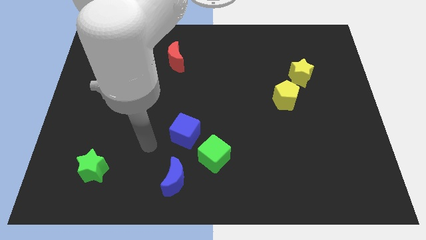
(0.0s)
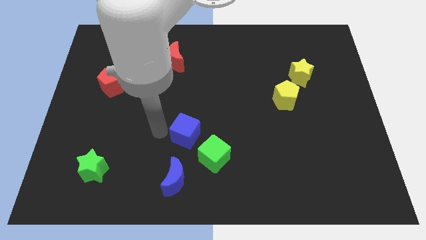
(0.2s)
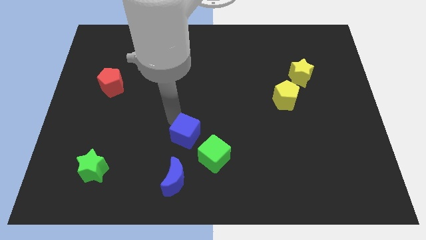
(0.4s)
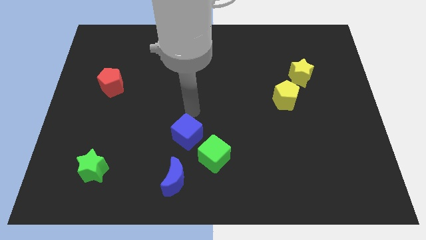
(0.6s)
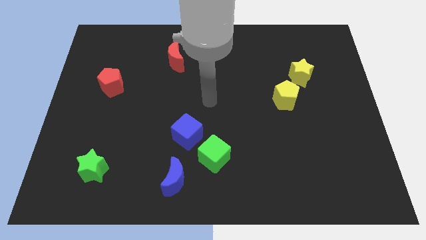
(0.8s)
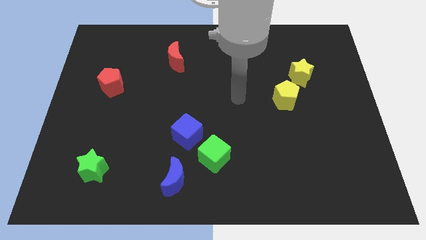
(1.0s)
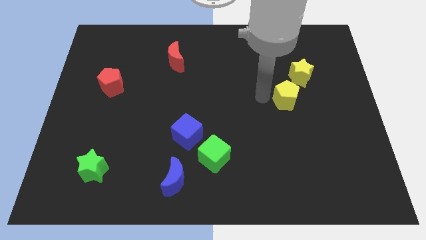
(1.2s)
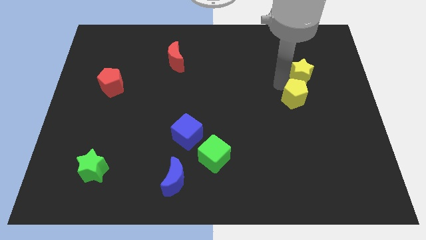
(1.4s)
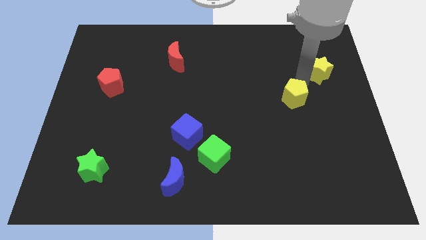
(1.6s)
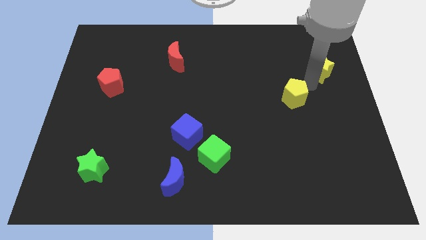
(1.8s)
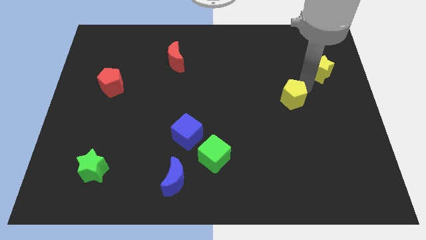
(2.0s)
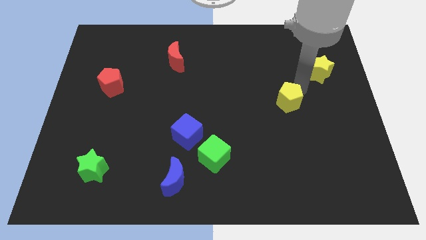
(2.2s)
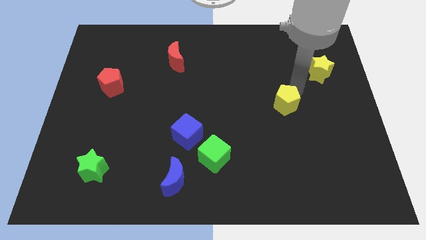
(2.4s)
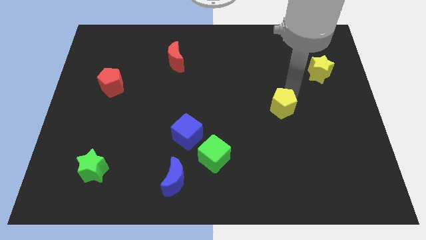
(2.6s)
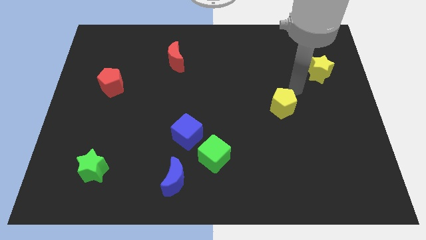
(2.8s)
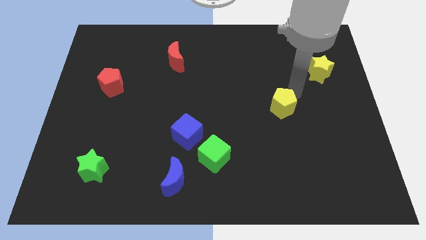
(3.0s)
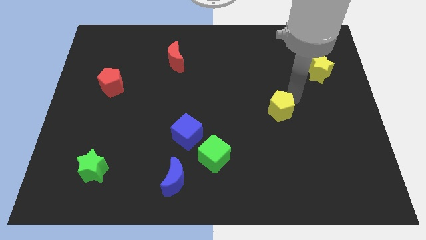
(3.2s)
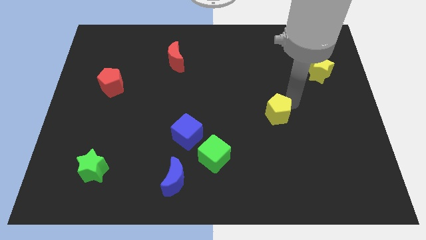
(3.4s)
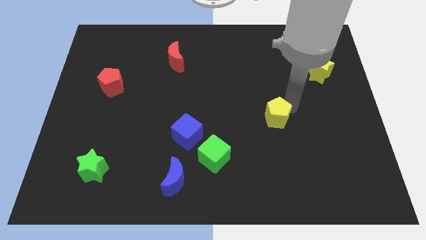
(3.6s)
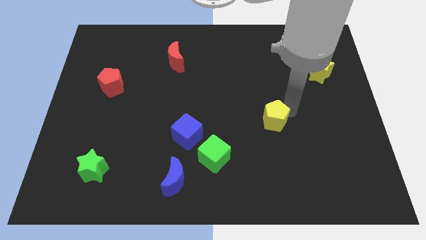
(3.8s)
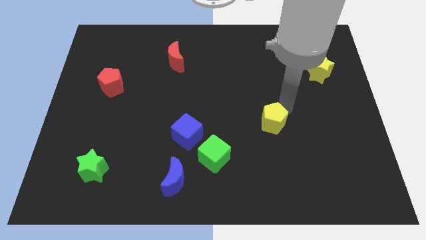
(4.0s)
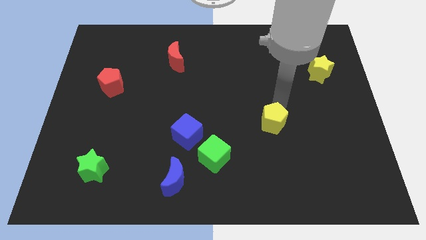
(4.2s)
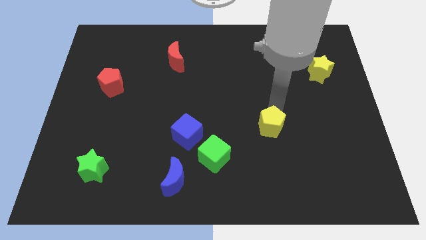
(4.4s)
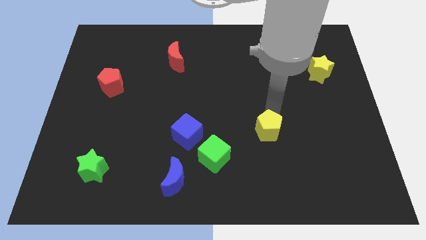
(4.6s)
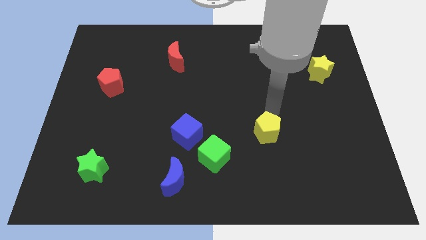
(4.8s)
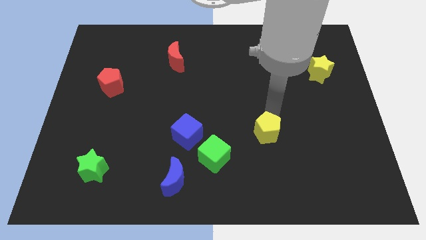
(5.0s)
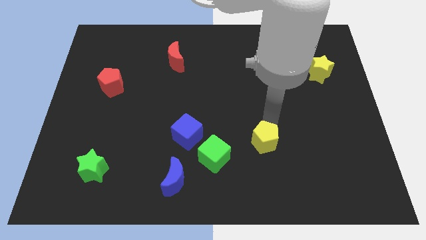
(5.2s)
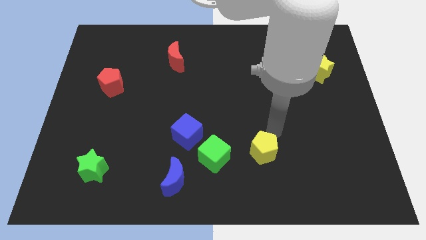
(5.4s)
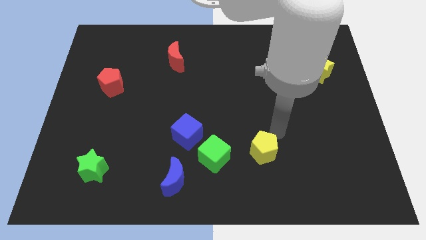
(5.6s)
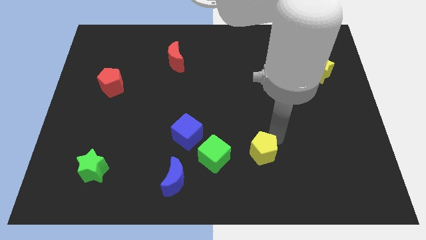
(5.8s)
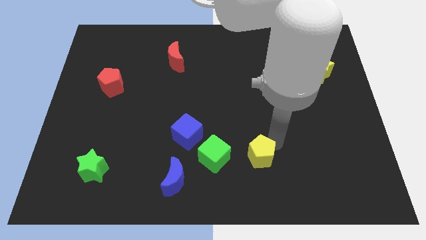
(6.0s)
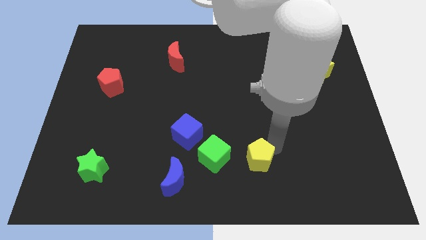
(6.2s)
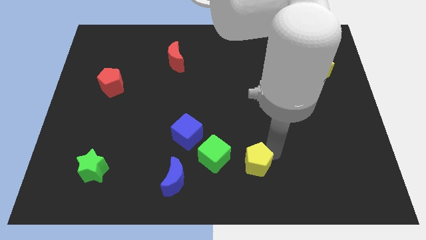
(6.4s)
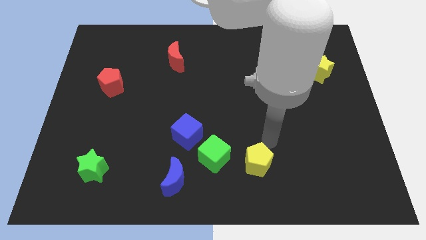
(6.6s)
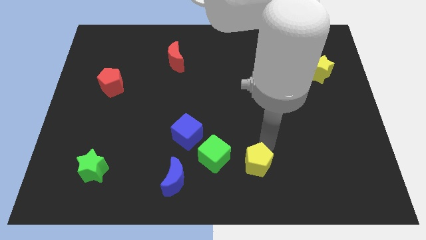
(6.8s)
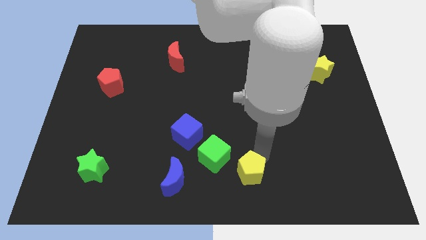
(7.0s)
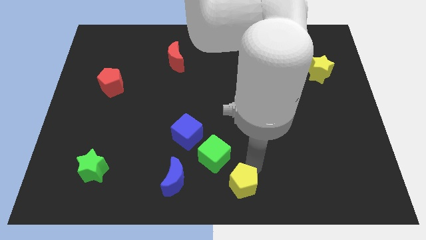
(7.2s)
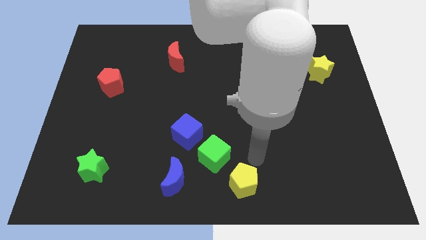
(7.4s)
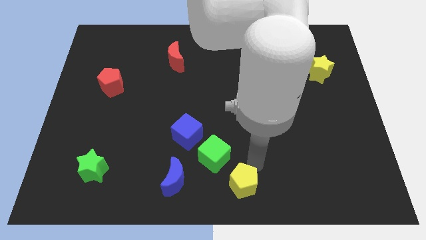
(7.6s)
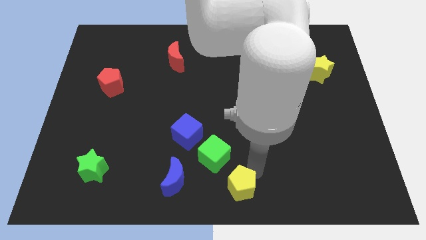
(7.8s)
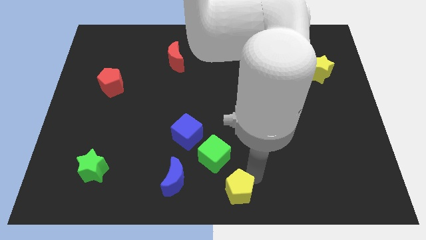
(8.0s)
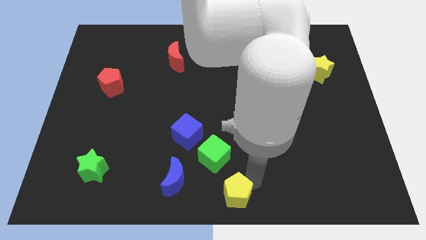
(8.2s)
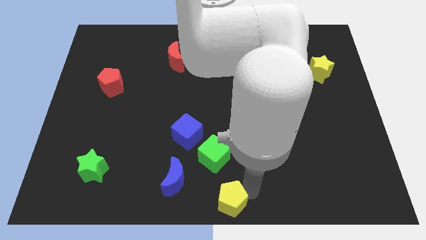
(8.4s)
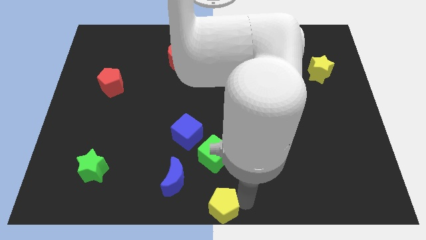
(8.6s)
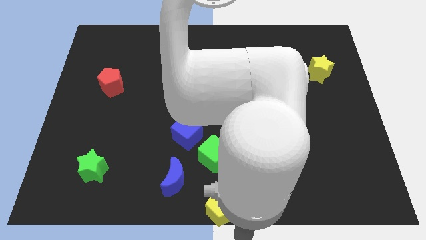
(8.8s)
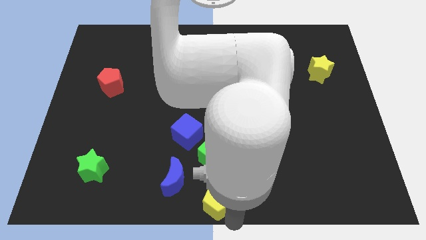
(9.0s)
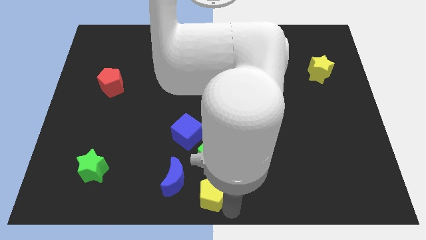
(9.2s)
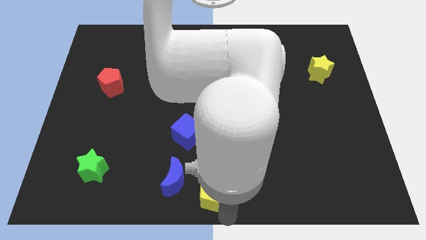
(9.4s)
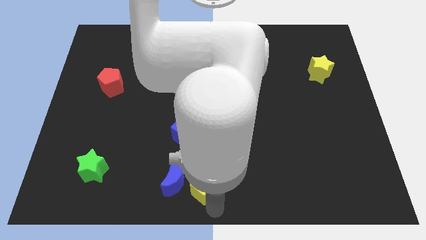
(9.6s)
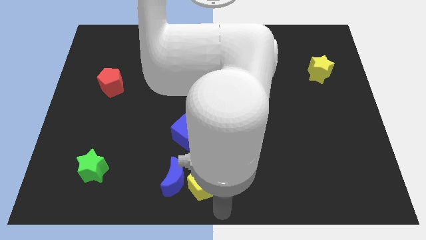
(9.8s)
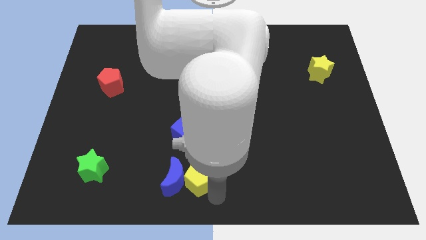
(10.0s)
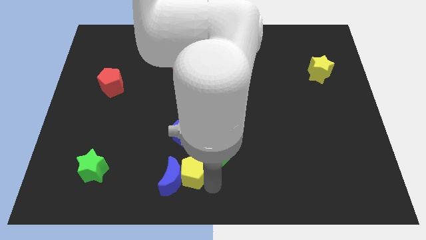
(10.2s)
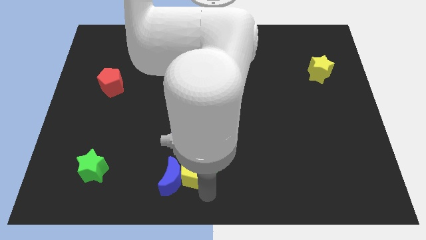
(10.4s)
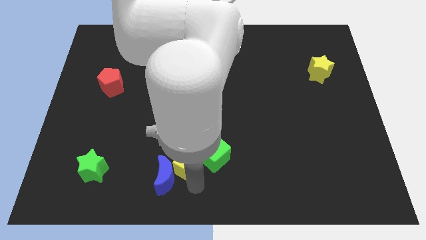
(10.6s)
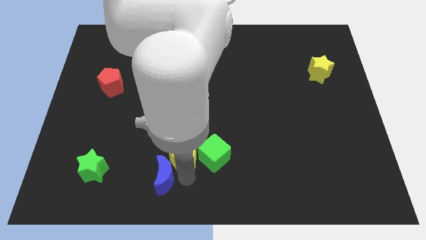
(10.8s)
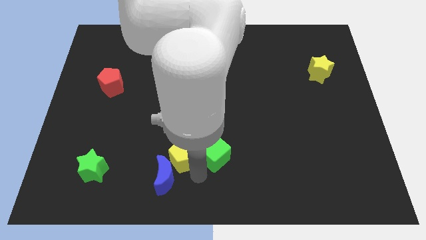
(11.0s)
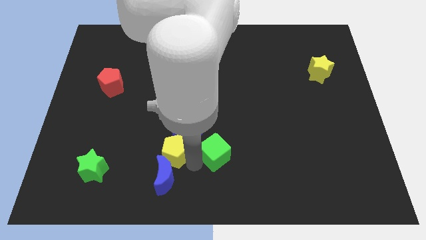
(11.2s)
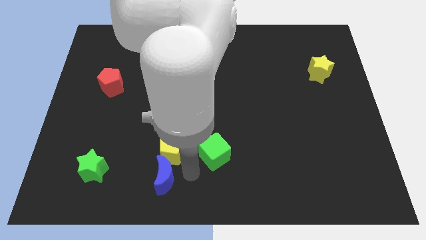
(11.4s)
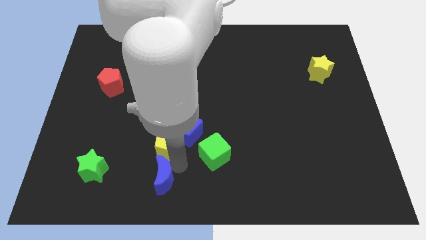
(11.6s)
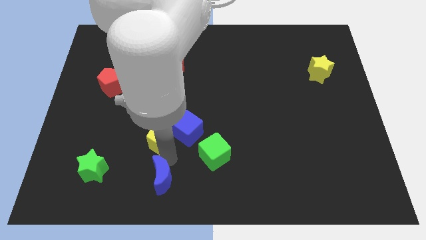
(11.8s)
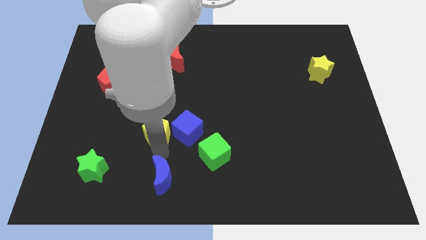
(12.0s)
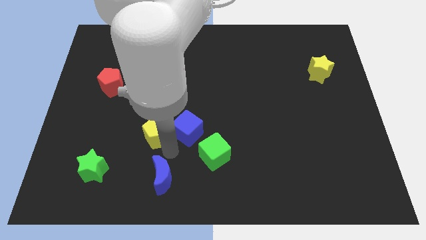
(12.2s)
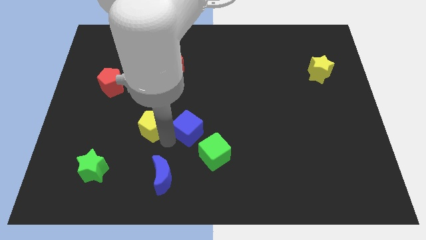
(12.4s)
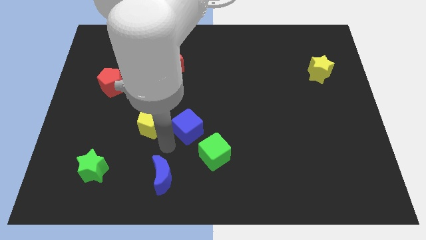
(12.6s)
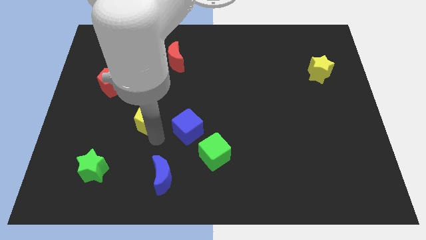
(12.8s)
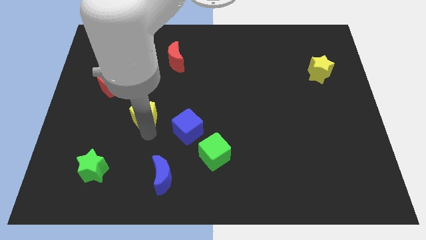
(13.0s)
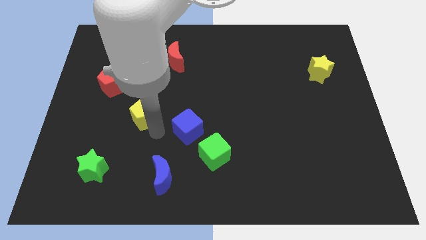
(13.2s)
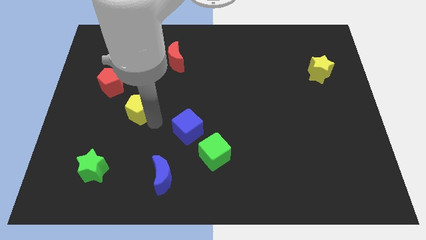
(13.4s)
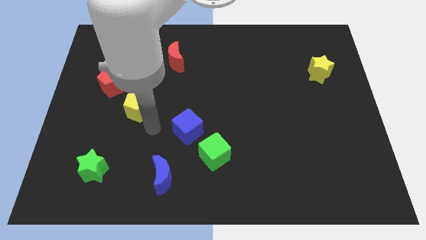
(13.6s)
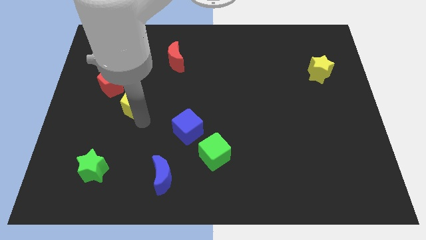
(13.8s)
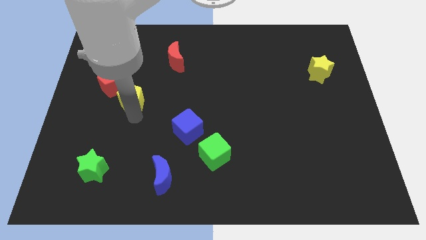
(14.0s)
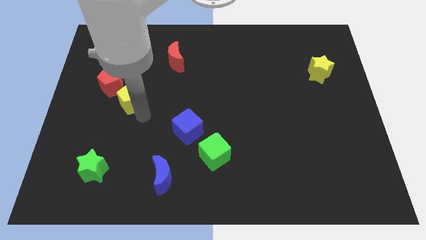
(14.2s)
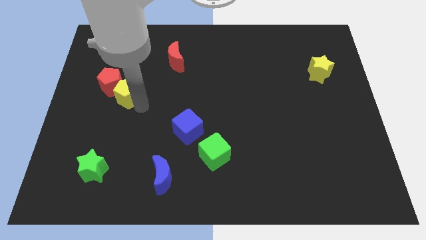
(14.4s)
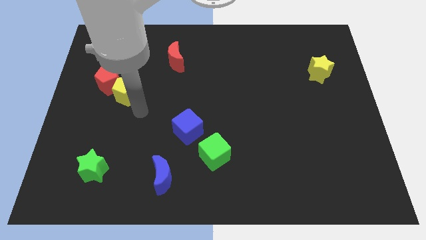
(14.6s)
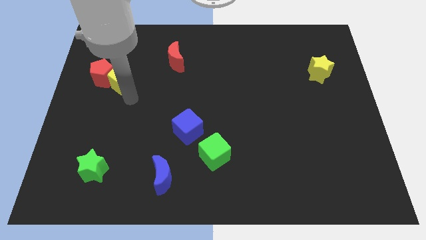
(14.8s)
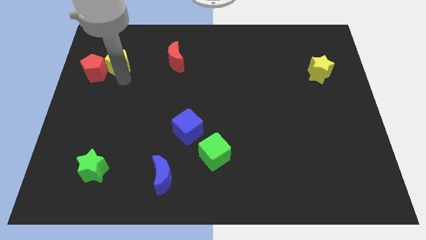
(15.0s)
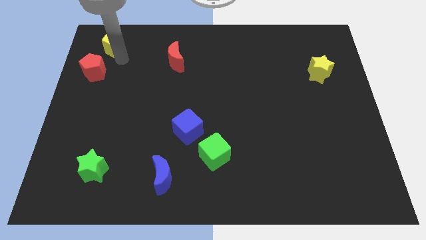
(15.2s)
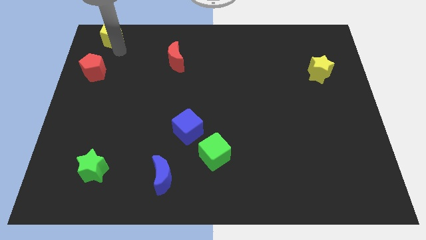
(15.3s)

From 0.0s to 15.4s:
put the yellow pentagon to the upper left corner
